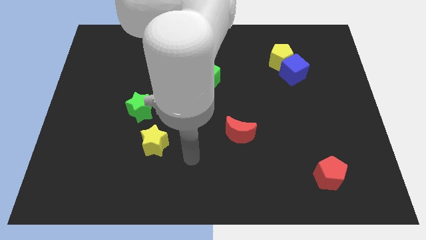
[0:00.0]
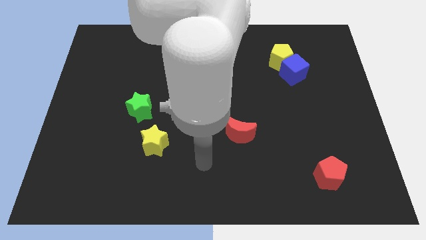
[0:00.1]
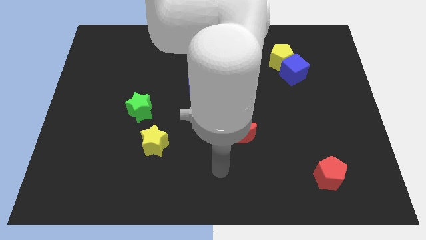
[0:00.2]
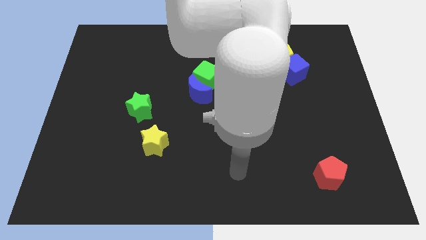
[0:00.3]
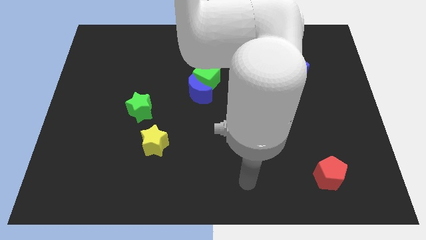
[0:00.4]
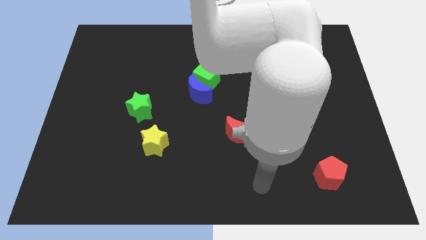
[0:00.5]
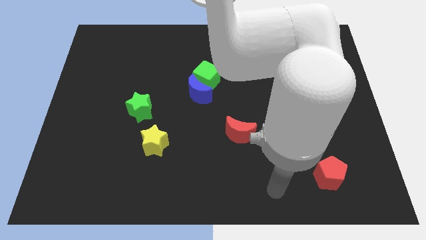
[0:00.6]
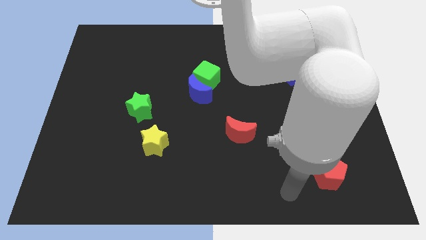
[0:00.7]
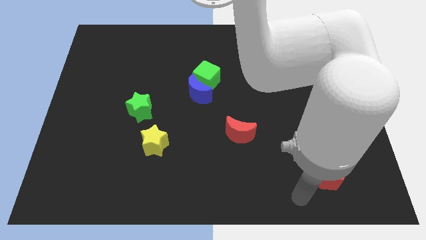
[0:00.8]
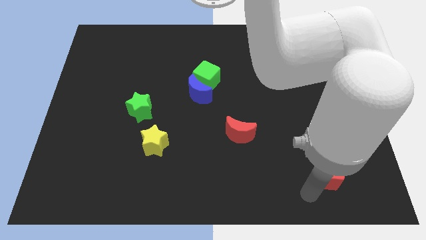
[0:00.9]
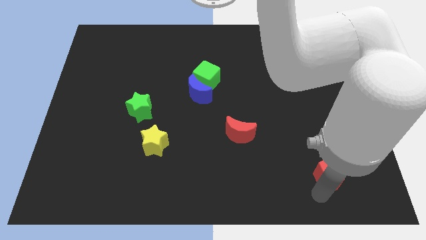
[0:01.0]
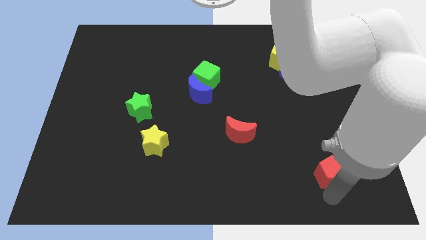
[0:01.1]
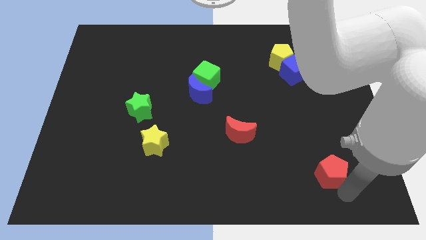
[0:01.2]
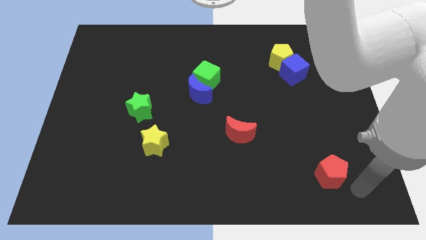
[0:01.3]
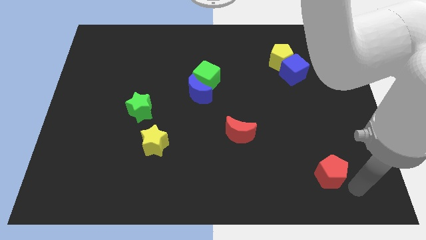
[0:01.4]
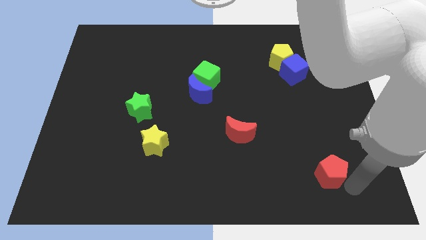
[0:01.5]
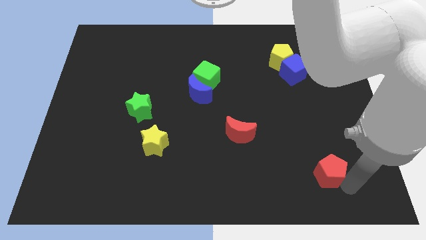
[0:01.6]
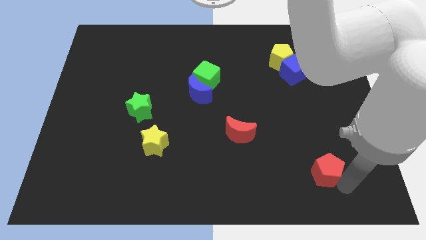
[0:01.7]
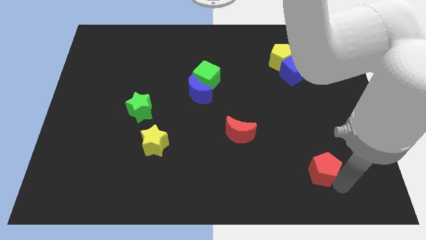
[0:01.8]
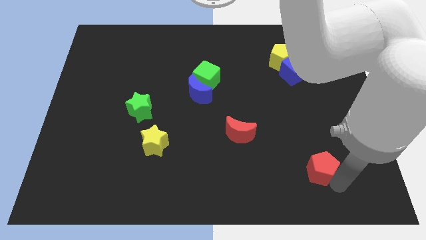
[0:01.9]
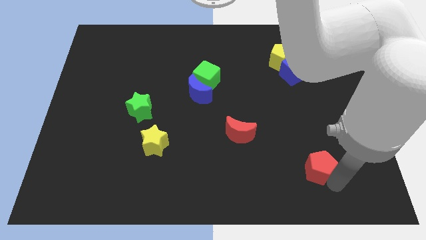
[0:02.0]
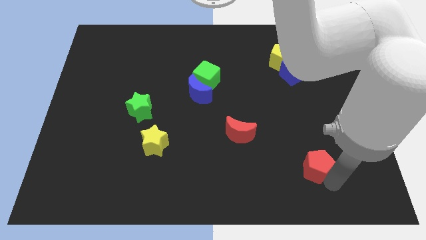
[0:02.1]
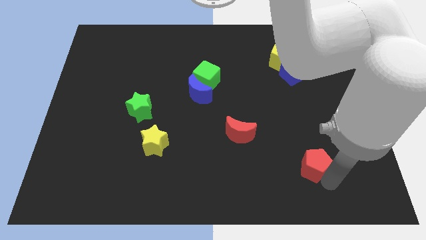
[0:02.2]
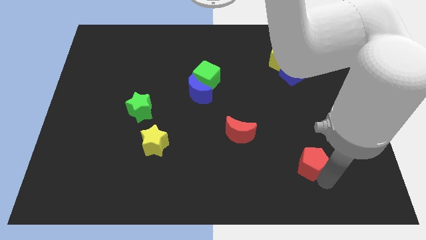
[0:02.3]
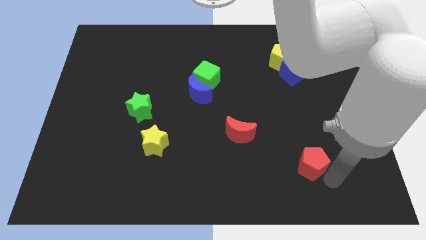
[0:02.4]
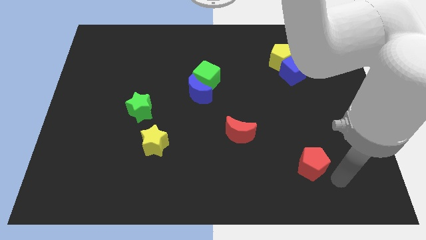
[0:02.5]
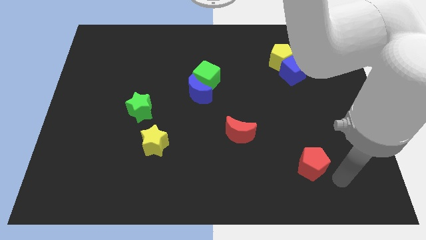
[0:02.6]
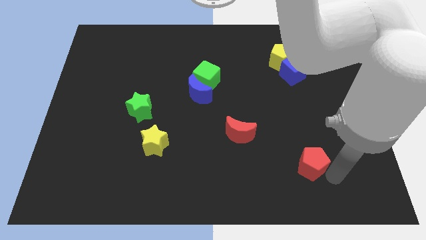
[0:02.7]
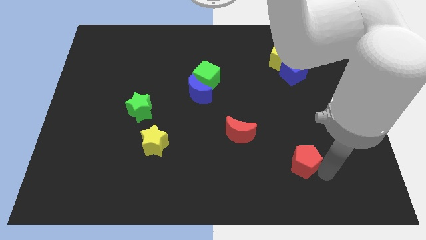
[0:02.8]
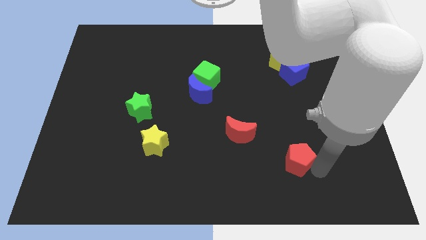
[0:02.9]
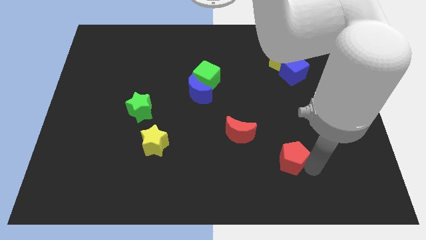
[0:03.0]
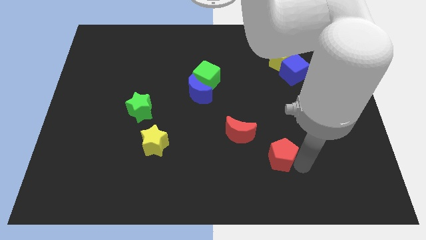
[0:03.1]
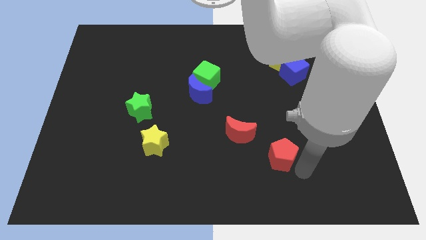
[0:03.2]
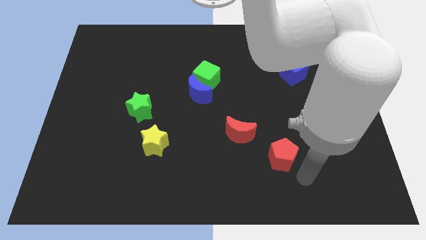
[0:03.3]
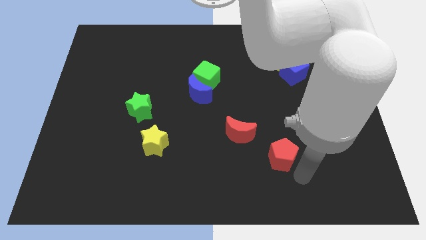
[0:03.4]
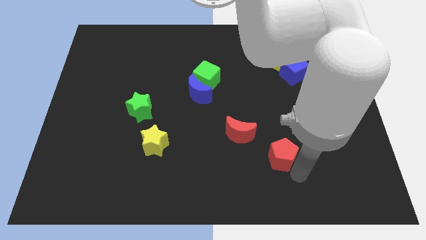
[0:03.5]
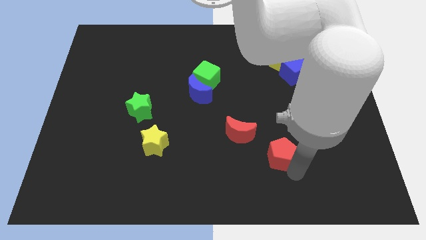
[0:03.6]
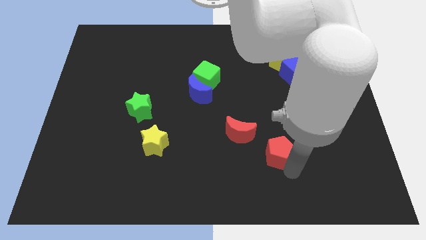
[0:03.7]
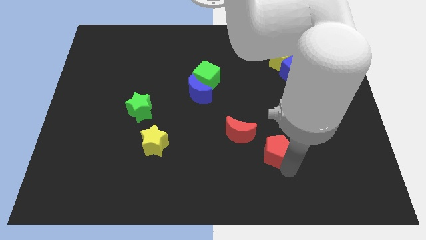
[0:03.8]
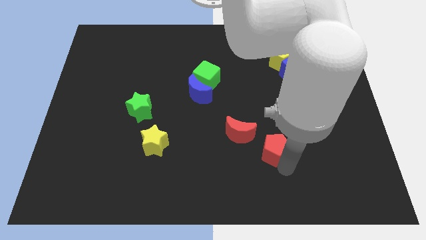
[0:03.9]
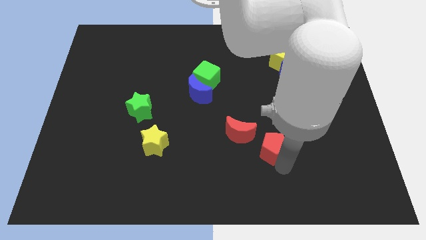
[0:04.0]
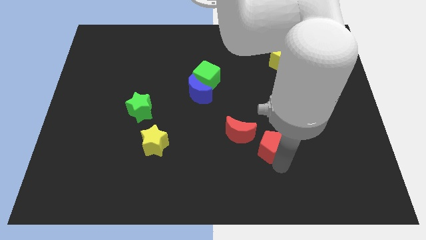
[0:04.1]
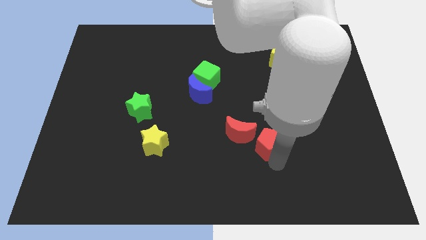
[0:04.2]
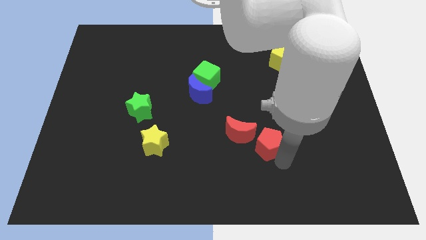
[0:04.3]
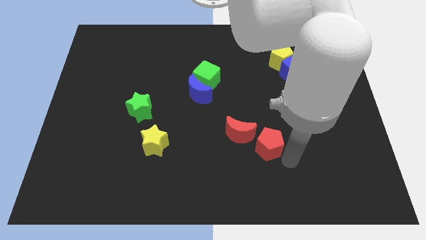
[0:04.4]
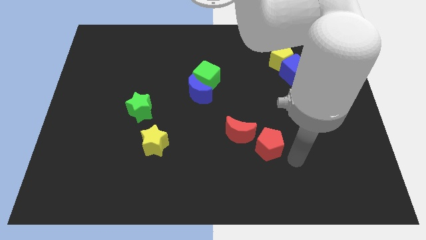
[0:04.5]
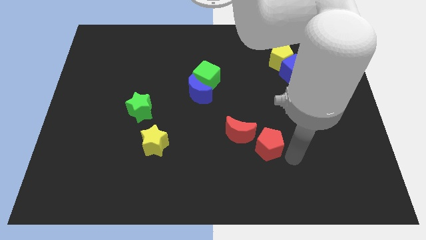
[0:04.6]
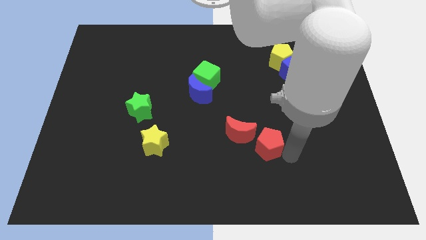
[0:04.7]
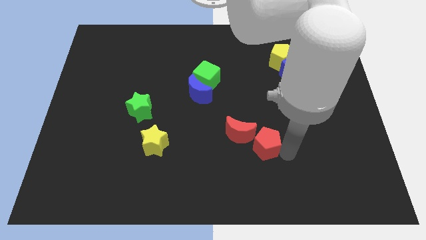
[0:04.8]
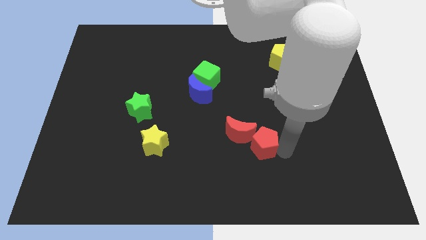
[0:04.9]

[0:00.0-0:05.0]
push the red pentagon towards the red moon

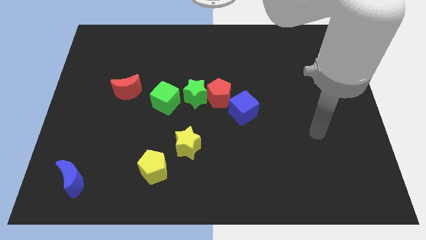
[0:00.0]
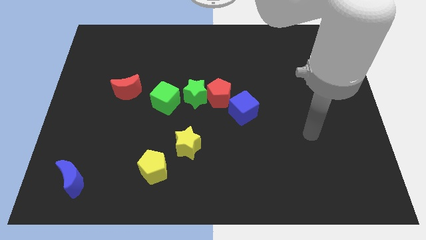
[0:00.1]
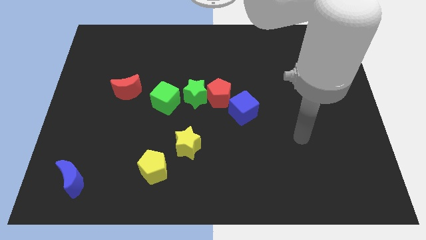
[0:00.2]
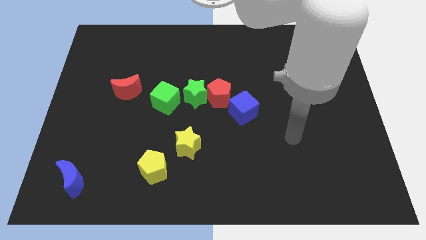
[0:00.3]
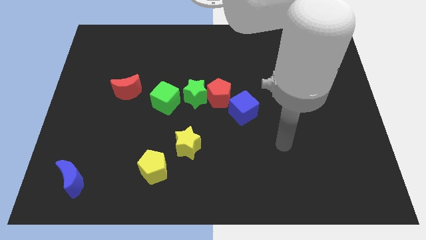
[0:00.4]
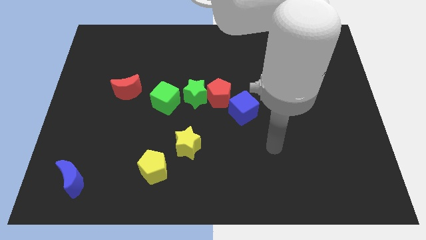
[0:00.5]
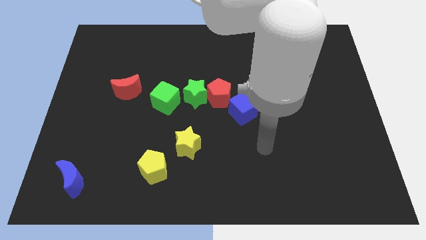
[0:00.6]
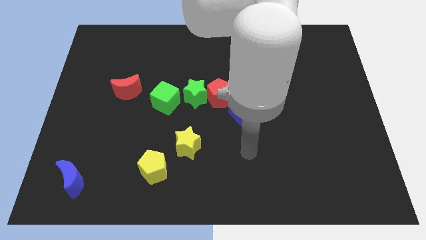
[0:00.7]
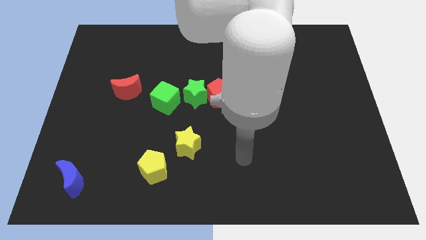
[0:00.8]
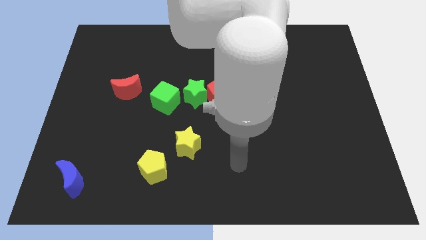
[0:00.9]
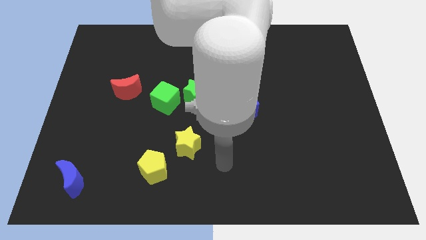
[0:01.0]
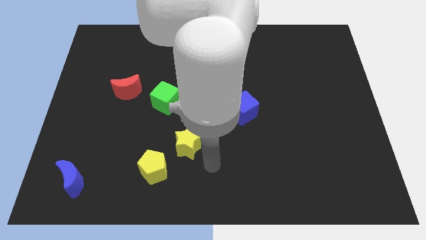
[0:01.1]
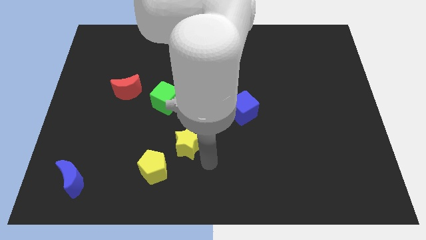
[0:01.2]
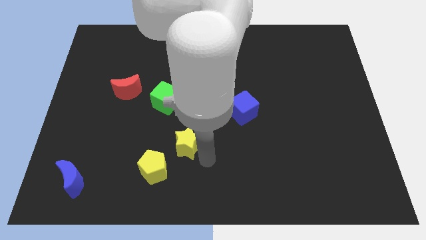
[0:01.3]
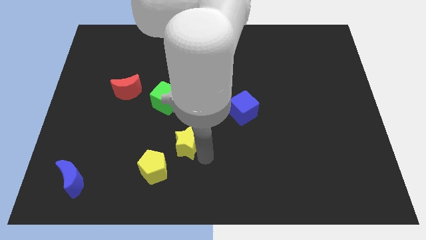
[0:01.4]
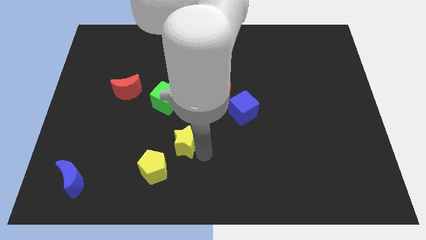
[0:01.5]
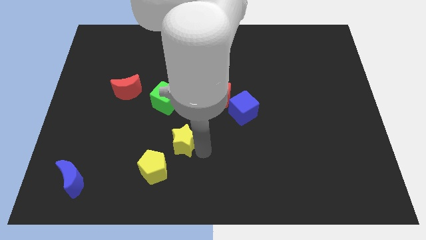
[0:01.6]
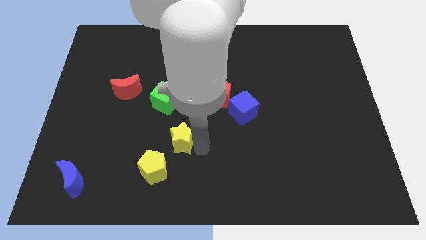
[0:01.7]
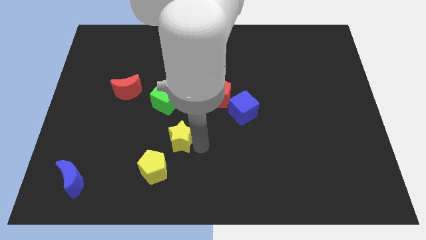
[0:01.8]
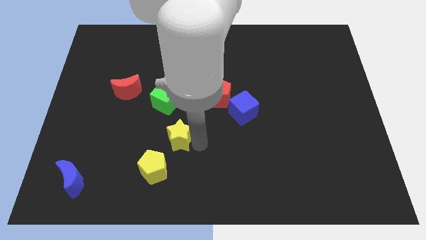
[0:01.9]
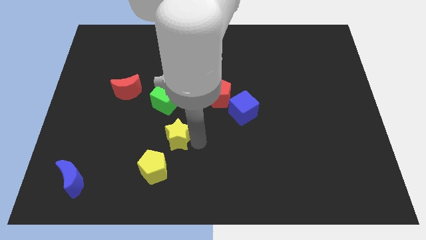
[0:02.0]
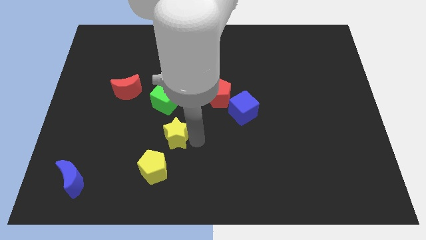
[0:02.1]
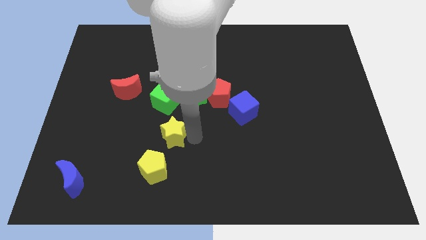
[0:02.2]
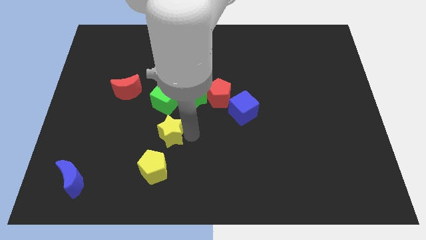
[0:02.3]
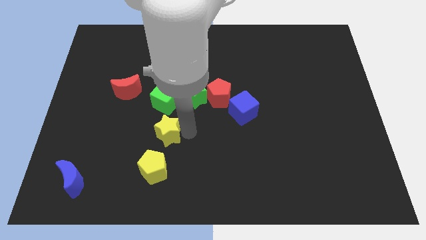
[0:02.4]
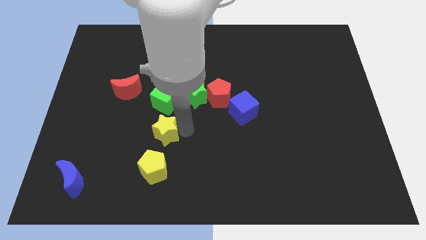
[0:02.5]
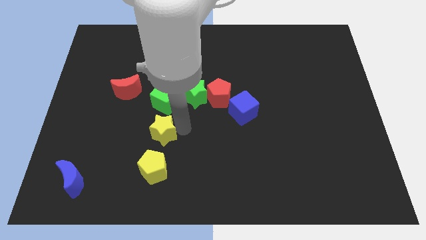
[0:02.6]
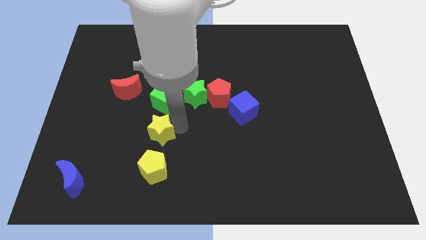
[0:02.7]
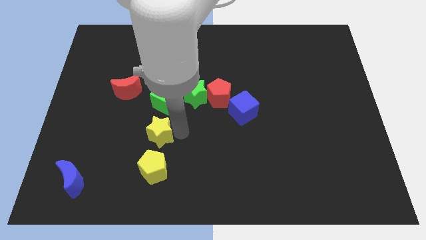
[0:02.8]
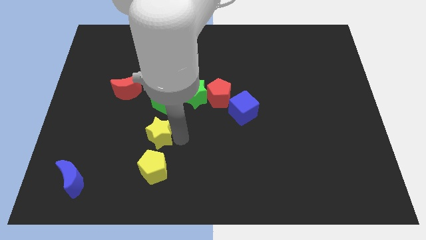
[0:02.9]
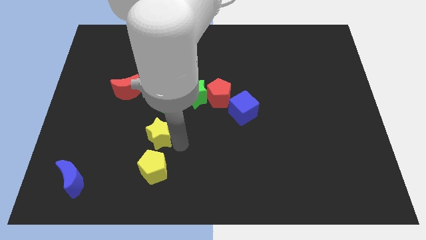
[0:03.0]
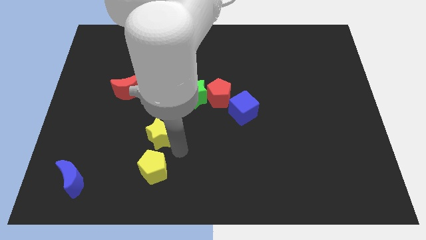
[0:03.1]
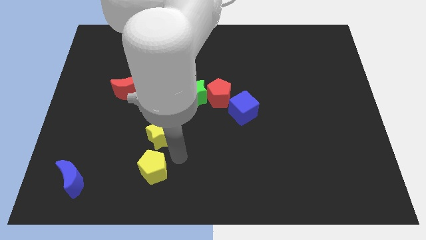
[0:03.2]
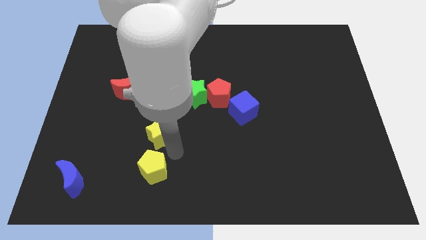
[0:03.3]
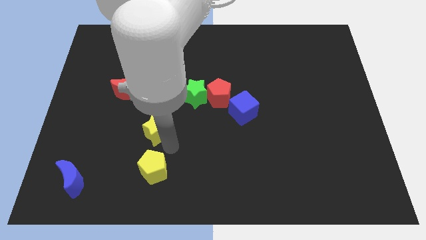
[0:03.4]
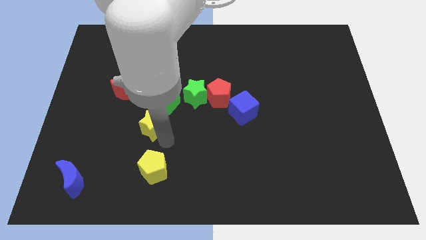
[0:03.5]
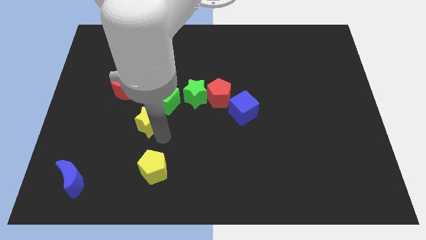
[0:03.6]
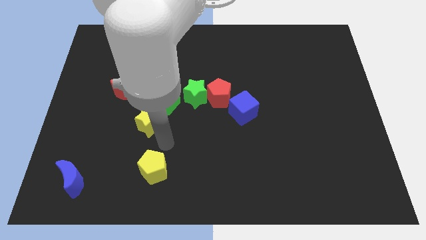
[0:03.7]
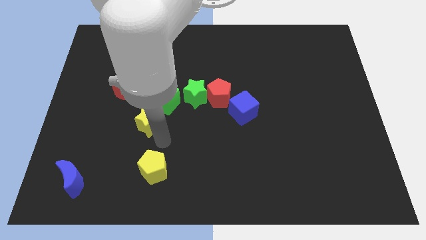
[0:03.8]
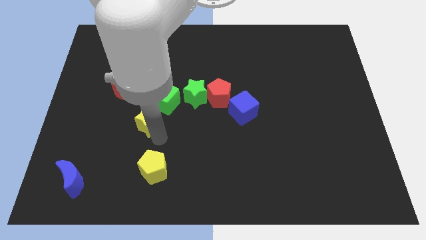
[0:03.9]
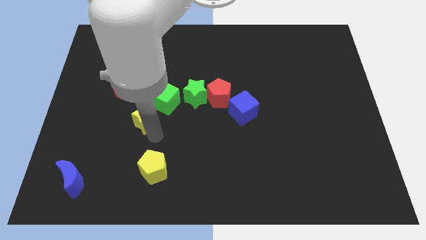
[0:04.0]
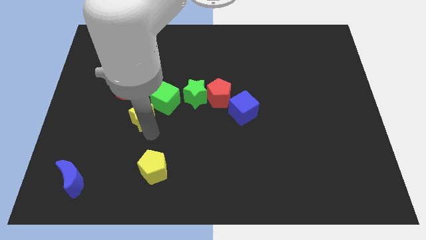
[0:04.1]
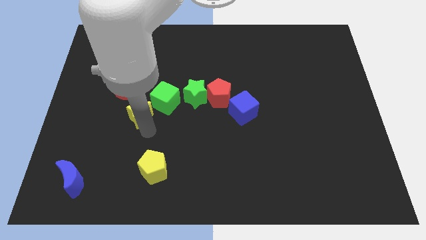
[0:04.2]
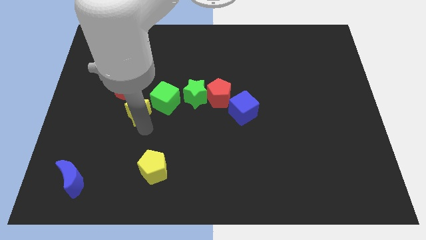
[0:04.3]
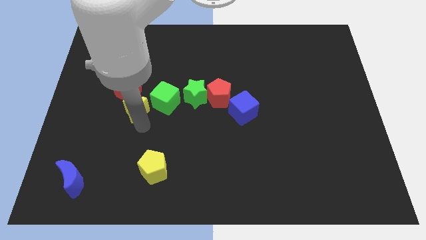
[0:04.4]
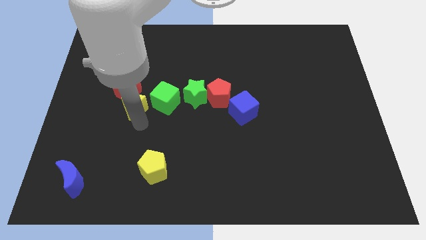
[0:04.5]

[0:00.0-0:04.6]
slide the yellow star to the red moon
